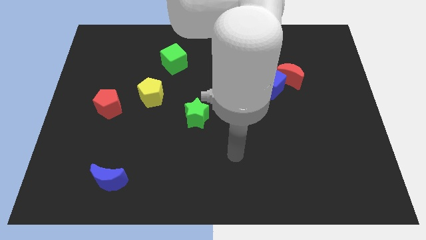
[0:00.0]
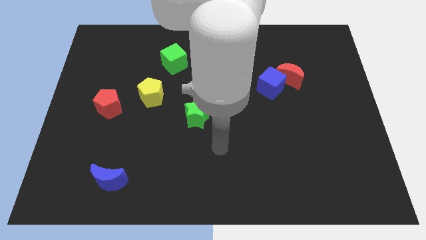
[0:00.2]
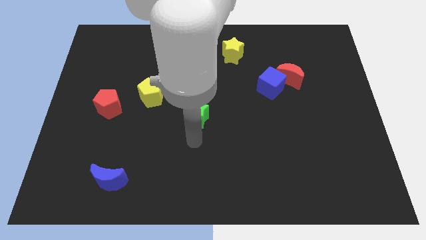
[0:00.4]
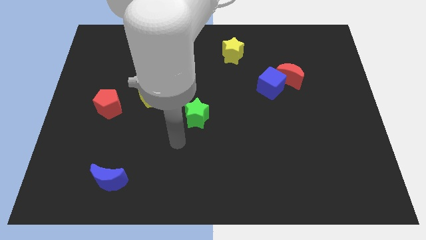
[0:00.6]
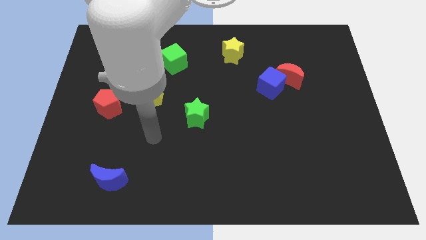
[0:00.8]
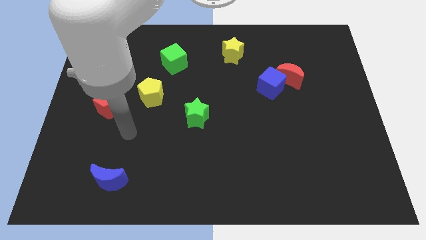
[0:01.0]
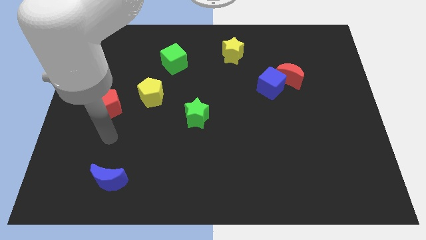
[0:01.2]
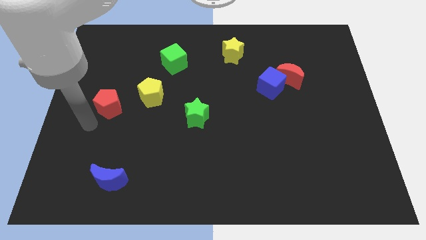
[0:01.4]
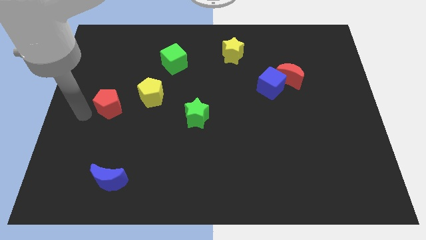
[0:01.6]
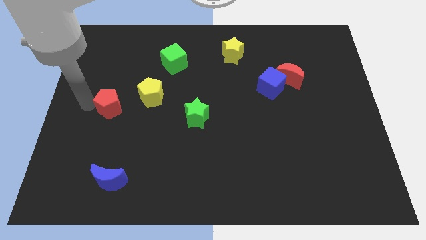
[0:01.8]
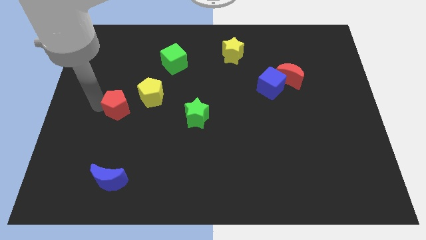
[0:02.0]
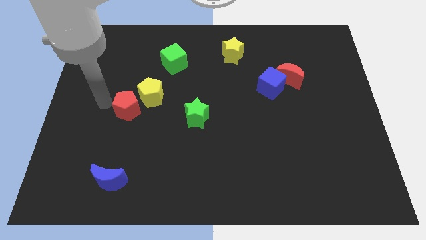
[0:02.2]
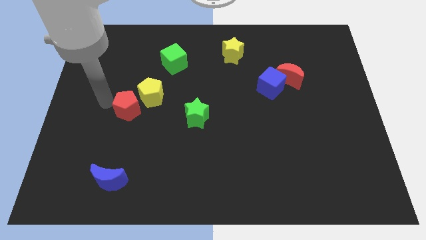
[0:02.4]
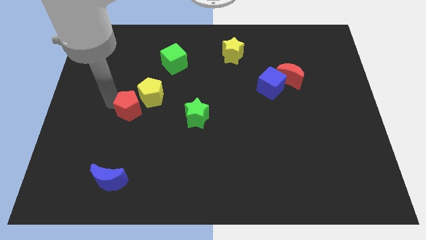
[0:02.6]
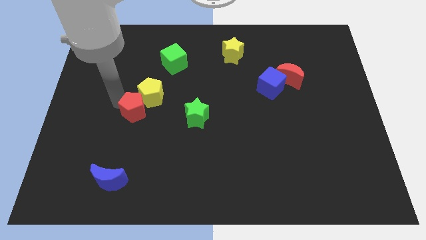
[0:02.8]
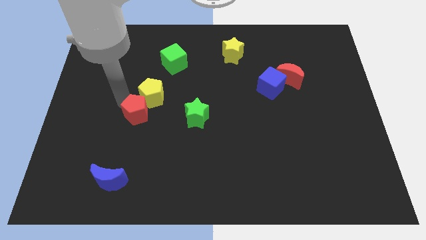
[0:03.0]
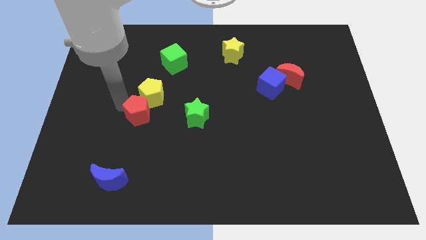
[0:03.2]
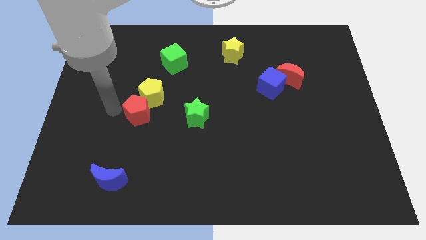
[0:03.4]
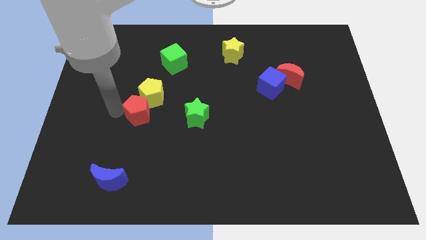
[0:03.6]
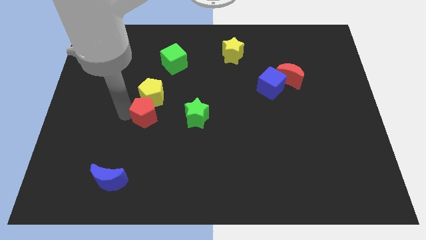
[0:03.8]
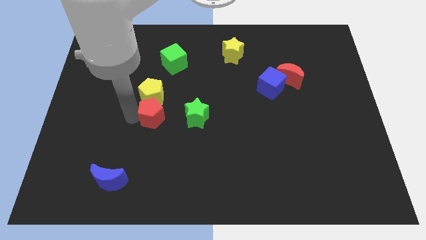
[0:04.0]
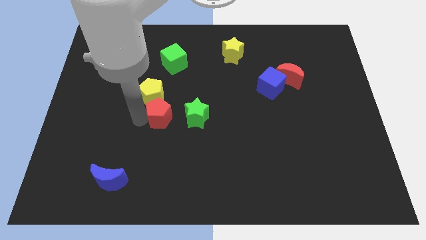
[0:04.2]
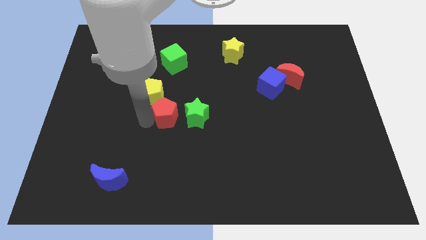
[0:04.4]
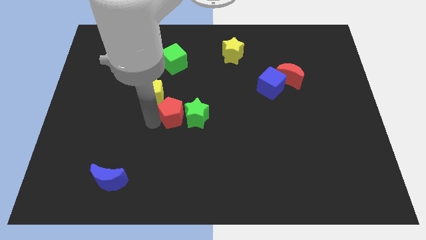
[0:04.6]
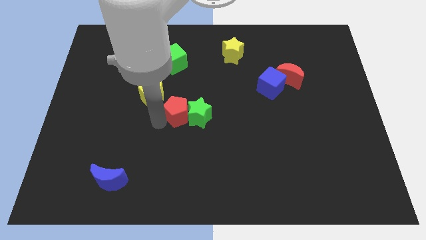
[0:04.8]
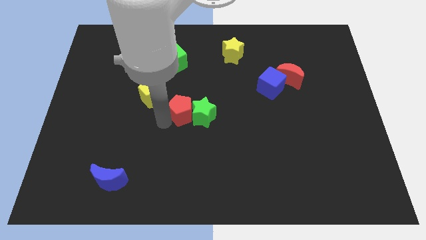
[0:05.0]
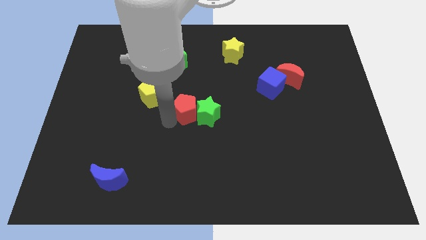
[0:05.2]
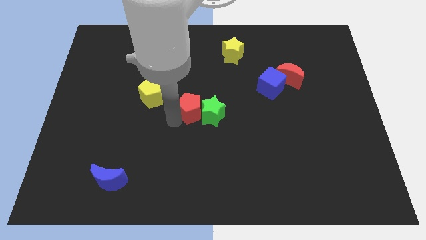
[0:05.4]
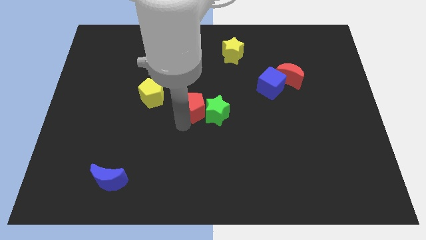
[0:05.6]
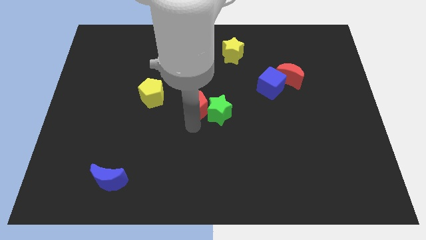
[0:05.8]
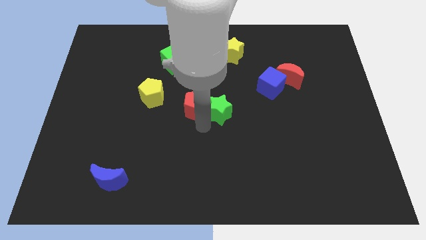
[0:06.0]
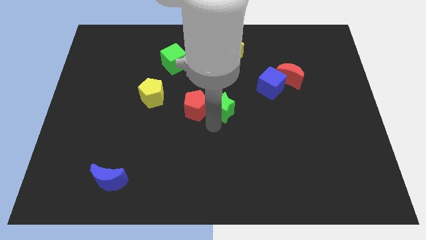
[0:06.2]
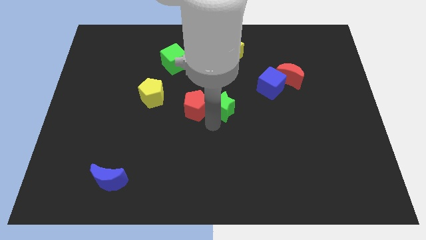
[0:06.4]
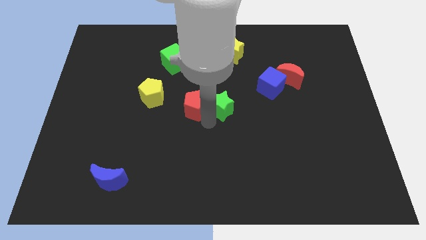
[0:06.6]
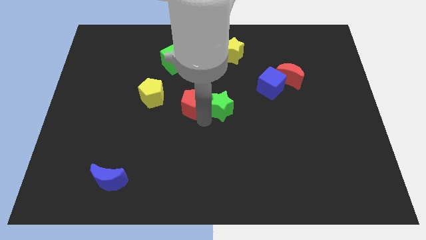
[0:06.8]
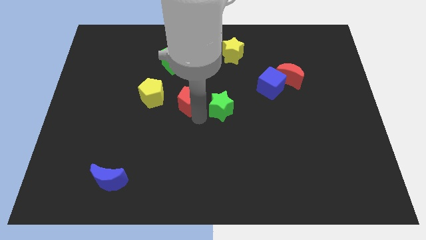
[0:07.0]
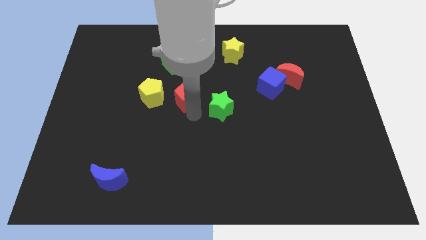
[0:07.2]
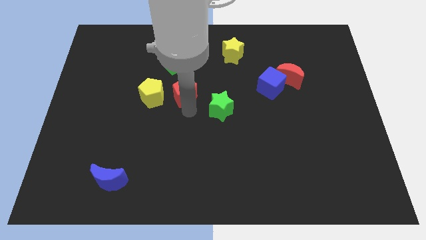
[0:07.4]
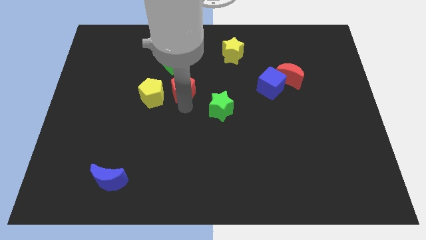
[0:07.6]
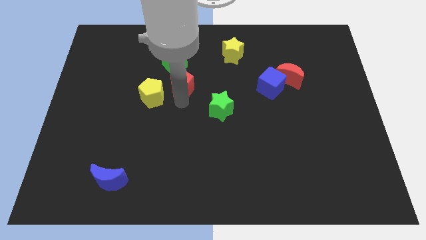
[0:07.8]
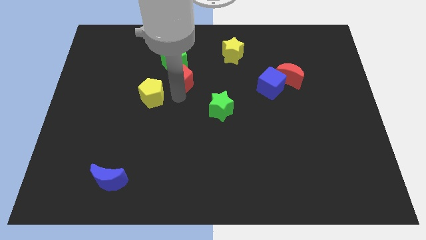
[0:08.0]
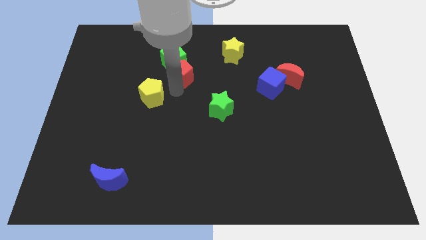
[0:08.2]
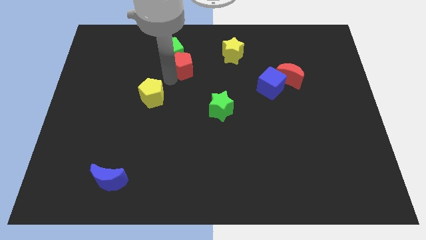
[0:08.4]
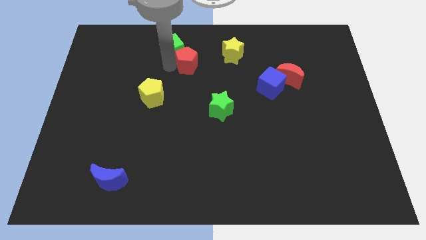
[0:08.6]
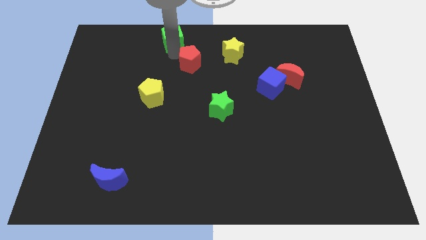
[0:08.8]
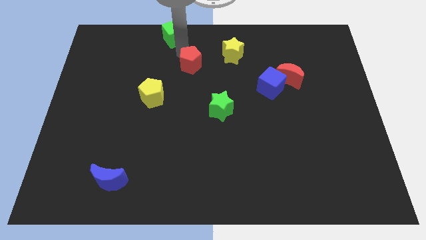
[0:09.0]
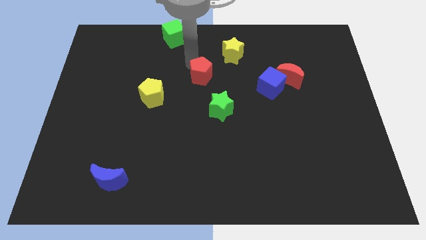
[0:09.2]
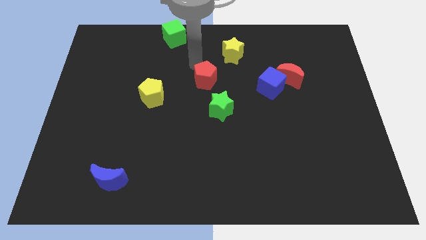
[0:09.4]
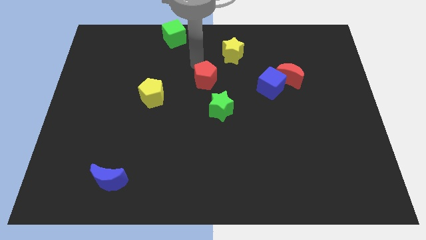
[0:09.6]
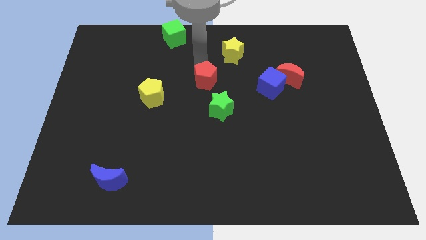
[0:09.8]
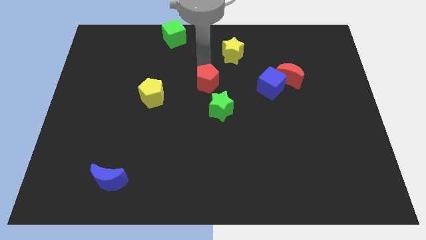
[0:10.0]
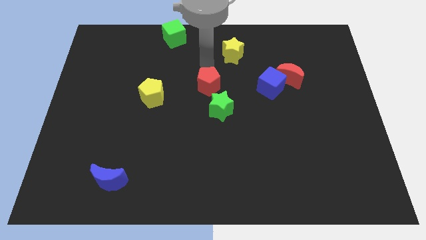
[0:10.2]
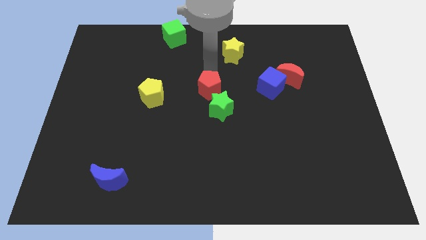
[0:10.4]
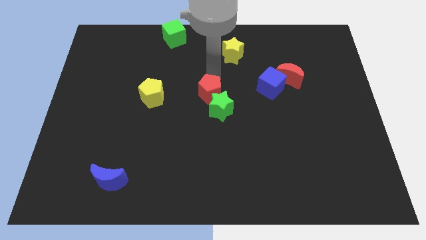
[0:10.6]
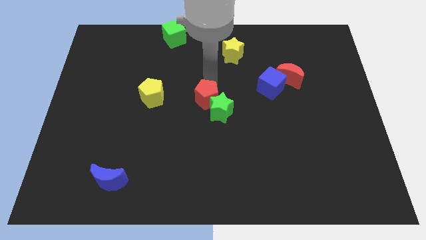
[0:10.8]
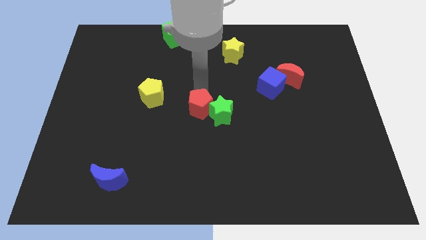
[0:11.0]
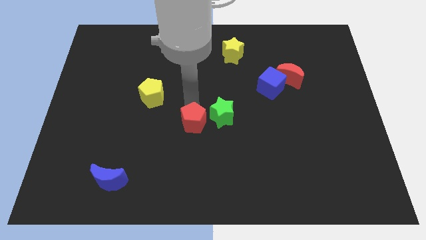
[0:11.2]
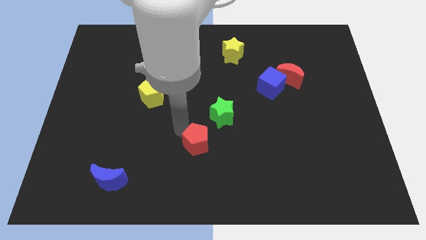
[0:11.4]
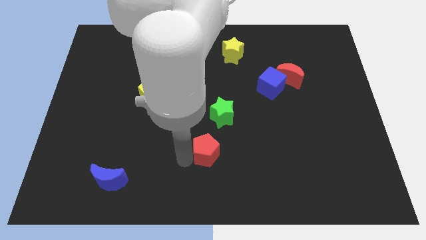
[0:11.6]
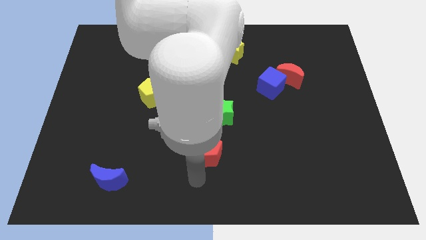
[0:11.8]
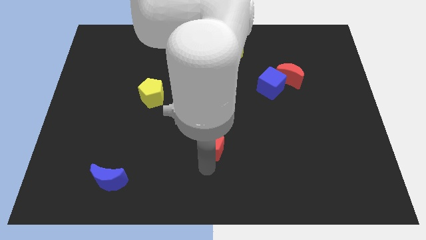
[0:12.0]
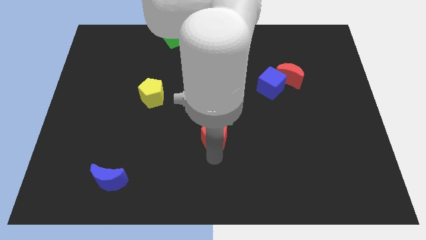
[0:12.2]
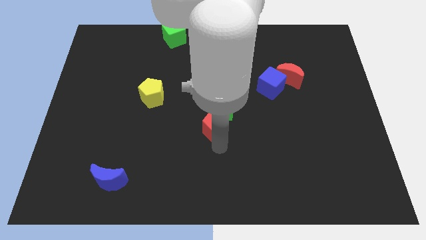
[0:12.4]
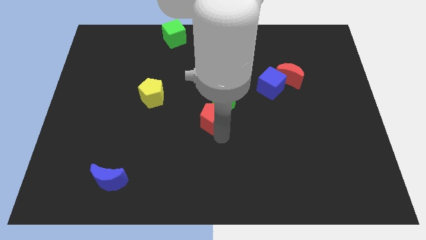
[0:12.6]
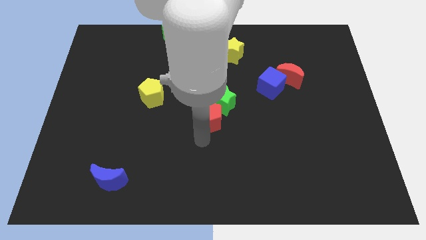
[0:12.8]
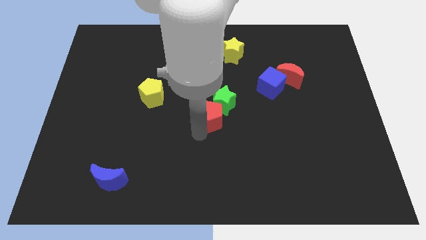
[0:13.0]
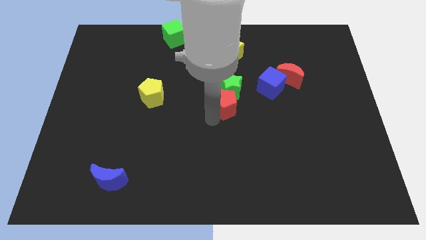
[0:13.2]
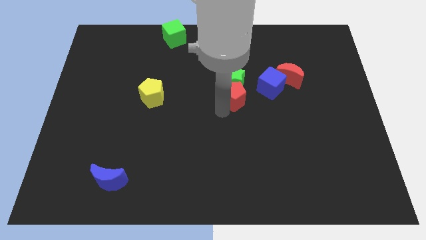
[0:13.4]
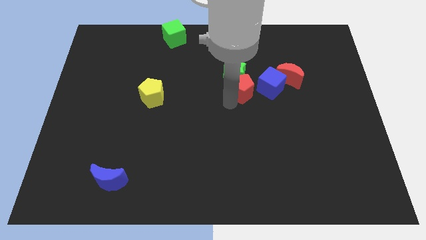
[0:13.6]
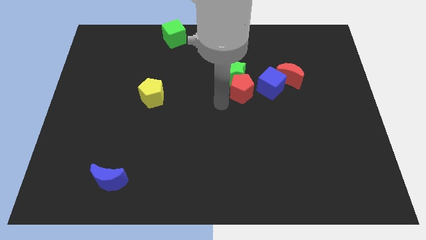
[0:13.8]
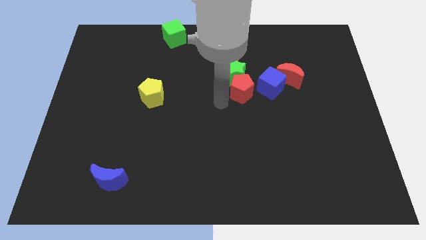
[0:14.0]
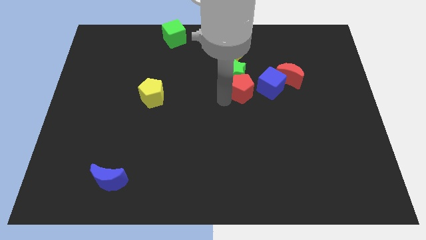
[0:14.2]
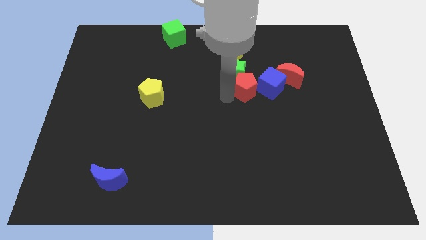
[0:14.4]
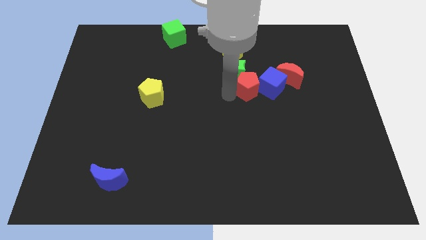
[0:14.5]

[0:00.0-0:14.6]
put the red pentagon towards the blue cube
